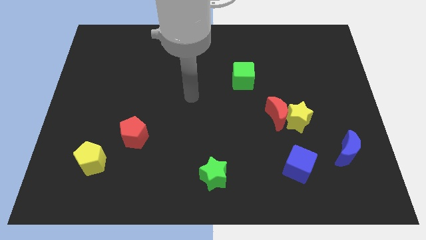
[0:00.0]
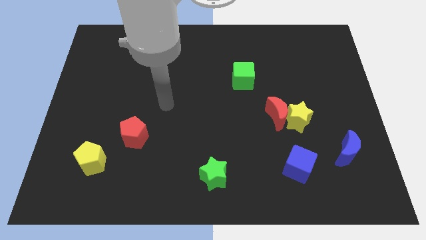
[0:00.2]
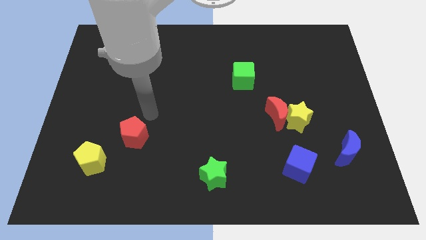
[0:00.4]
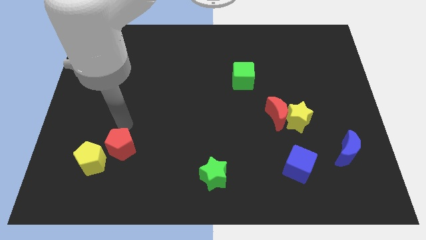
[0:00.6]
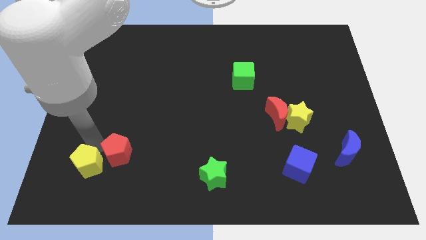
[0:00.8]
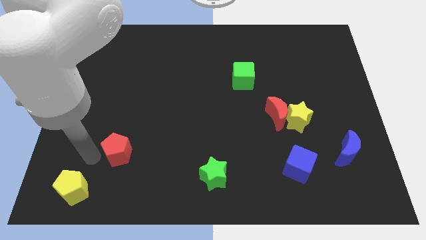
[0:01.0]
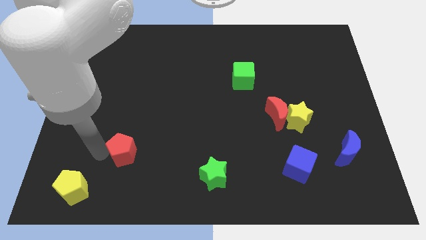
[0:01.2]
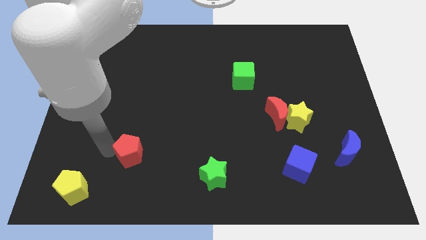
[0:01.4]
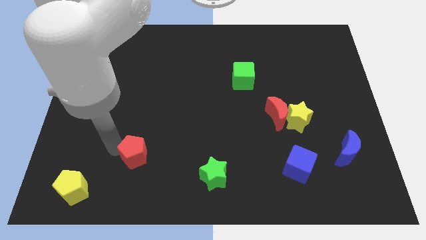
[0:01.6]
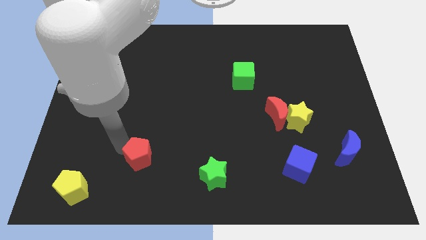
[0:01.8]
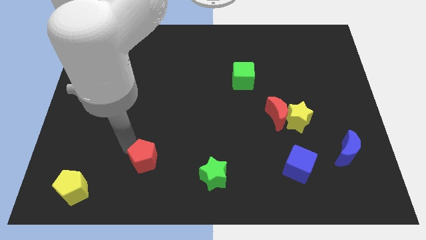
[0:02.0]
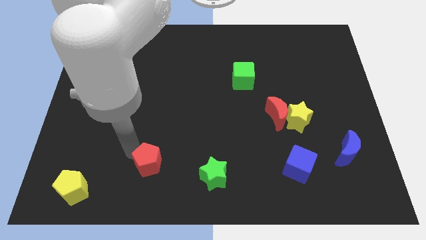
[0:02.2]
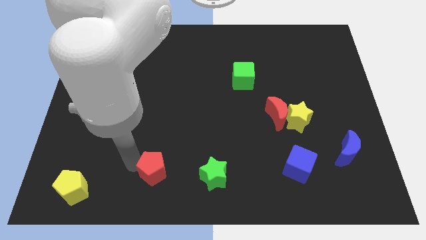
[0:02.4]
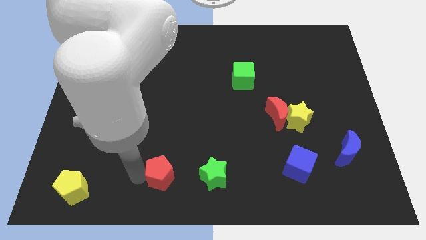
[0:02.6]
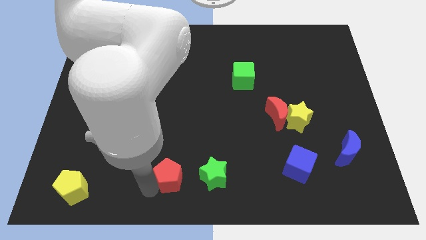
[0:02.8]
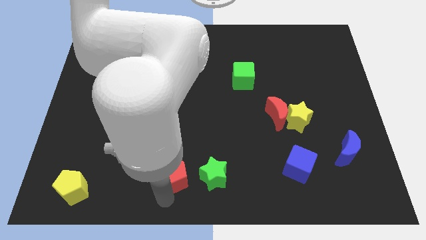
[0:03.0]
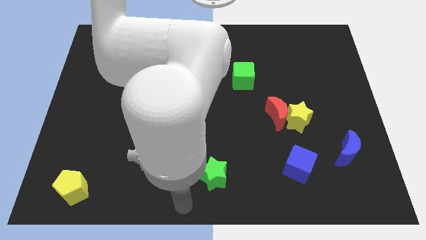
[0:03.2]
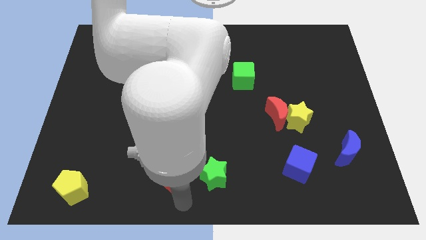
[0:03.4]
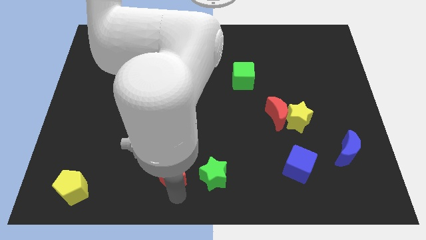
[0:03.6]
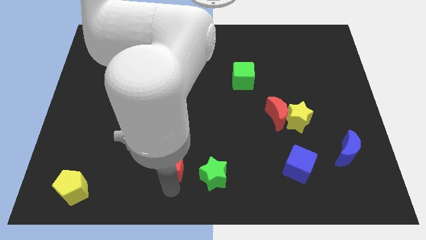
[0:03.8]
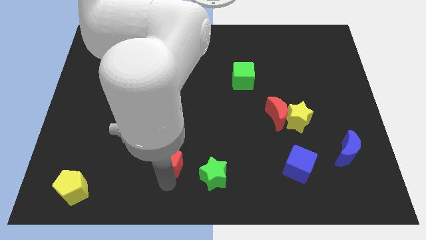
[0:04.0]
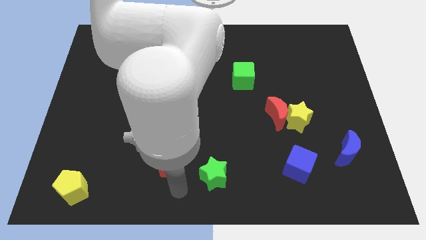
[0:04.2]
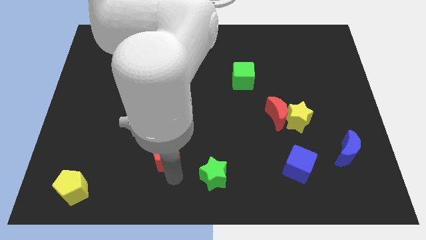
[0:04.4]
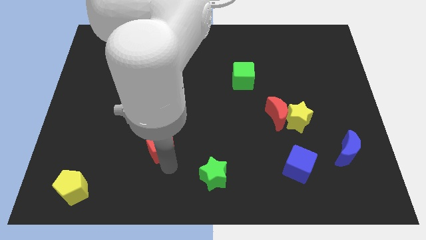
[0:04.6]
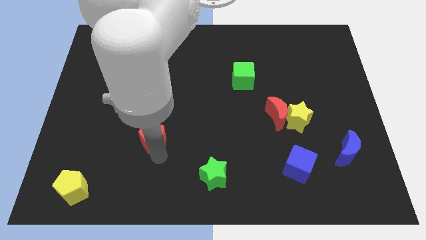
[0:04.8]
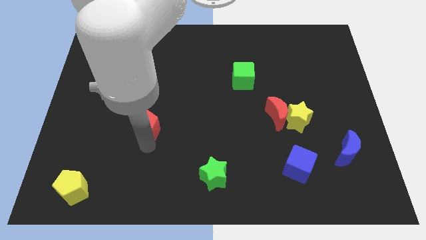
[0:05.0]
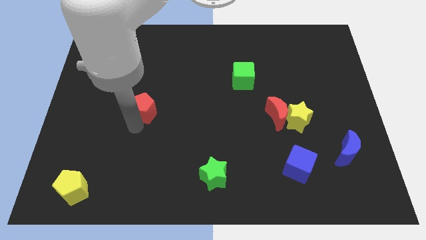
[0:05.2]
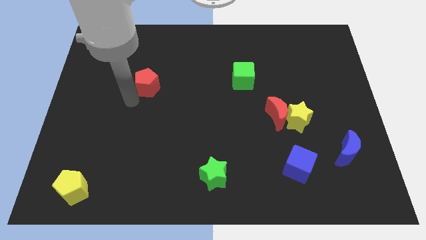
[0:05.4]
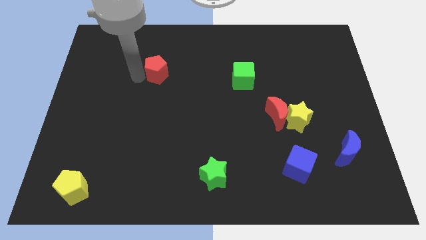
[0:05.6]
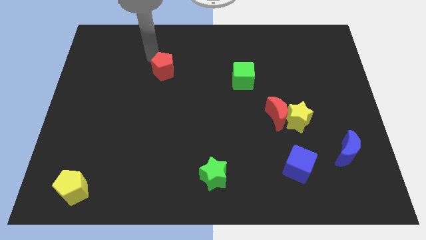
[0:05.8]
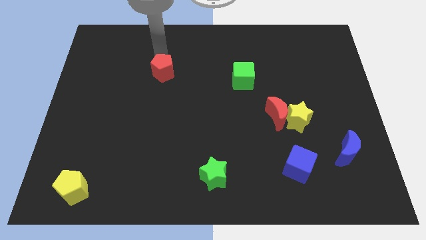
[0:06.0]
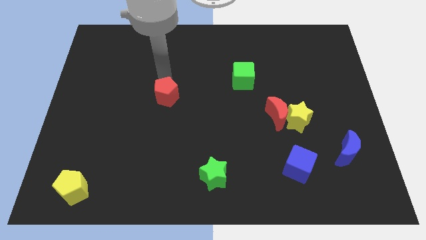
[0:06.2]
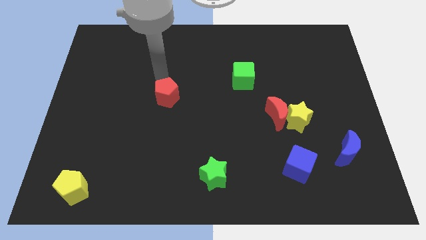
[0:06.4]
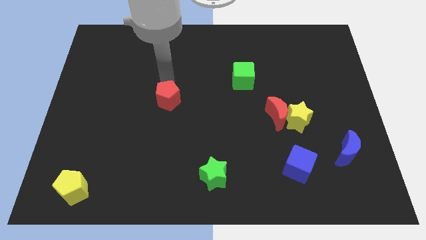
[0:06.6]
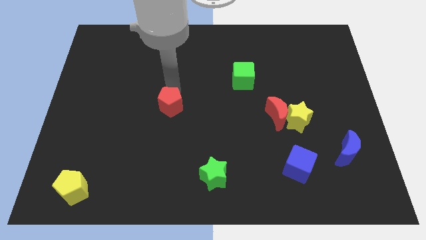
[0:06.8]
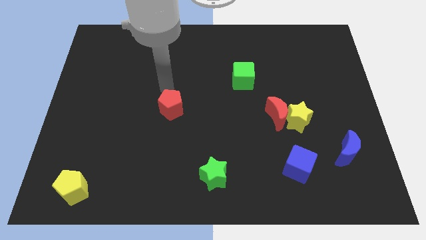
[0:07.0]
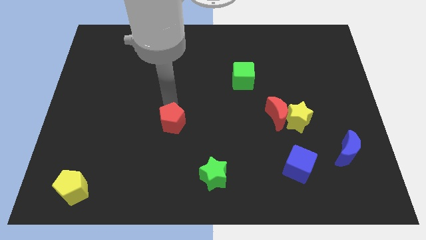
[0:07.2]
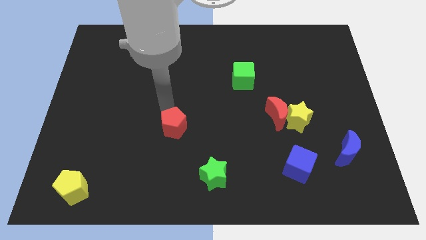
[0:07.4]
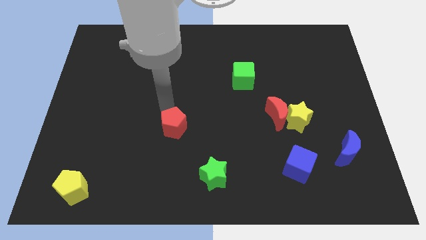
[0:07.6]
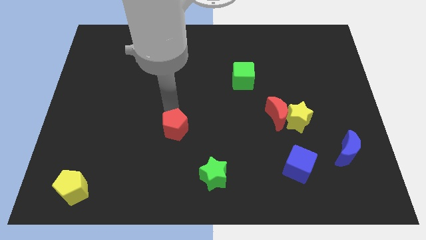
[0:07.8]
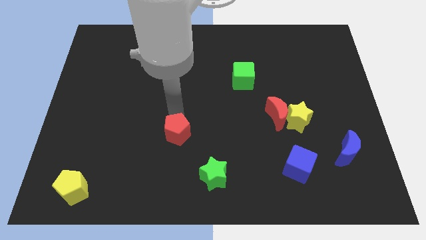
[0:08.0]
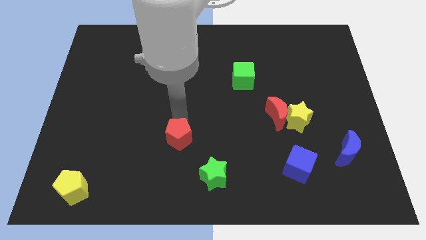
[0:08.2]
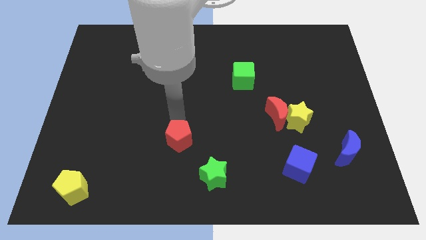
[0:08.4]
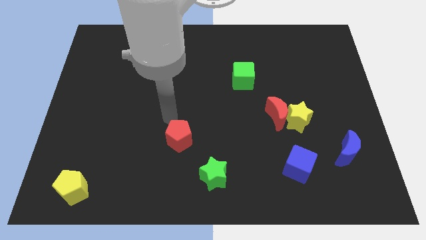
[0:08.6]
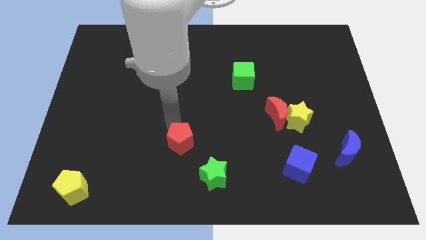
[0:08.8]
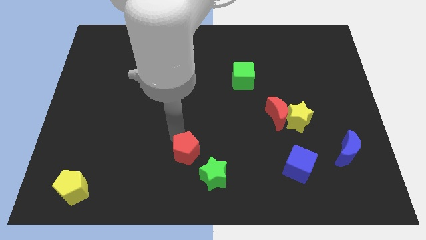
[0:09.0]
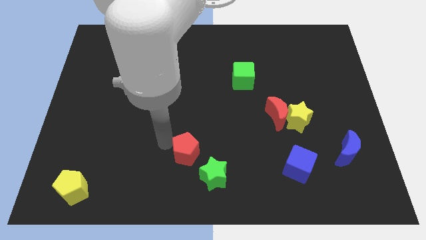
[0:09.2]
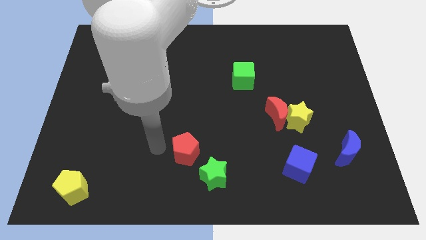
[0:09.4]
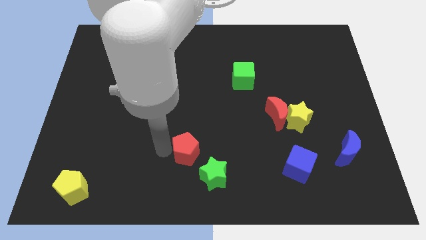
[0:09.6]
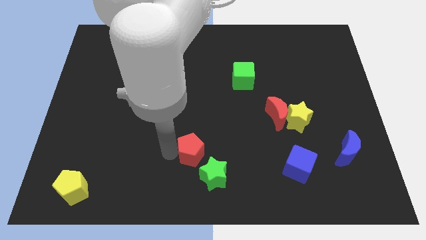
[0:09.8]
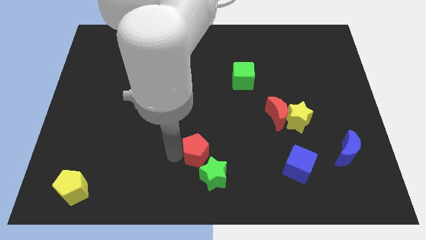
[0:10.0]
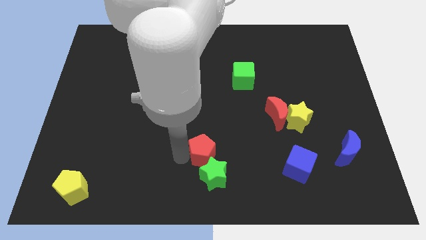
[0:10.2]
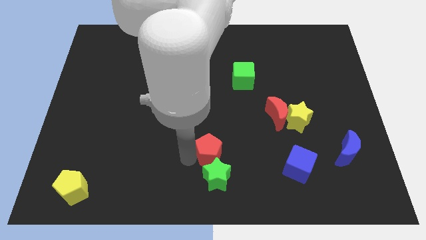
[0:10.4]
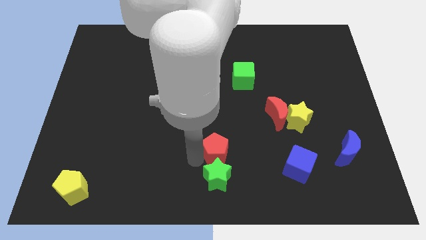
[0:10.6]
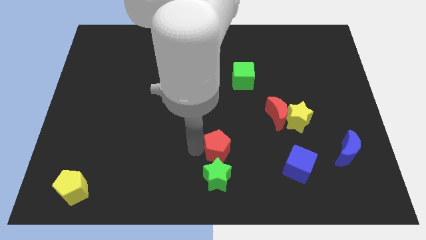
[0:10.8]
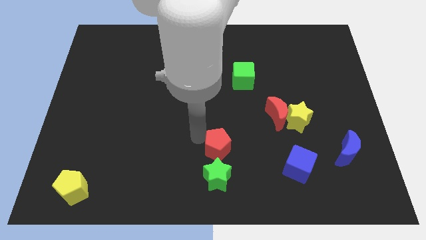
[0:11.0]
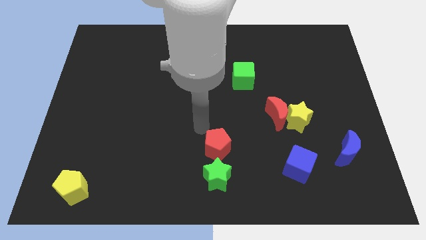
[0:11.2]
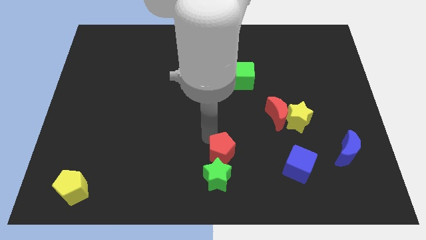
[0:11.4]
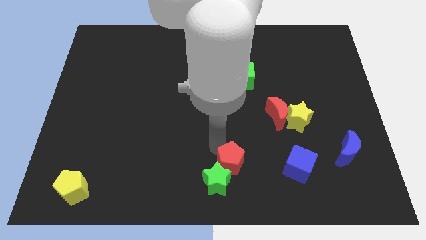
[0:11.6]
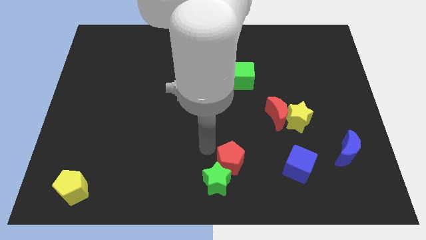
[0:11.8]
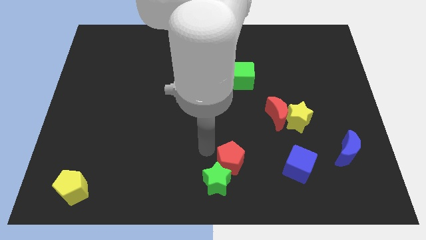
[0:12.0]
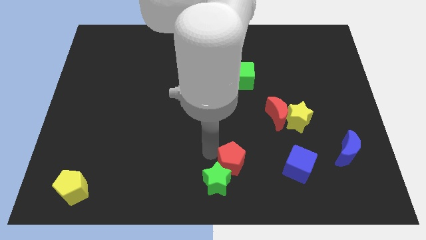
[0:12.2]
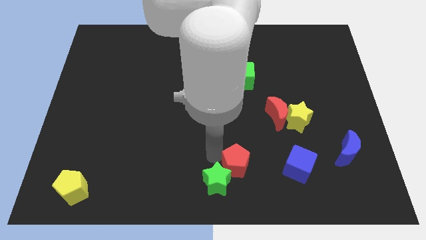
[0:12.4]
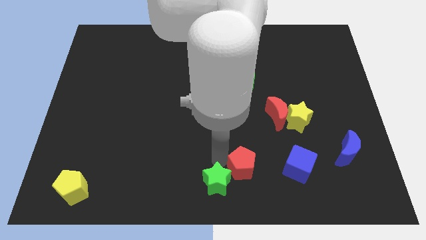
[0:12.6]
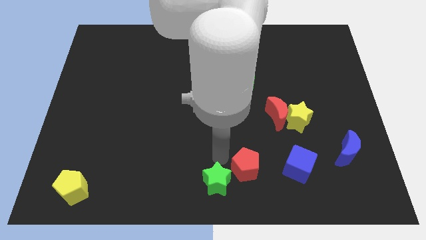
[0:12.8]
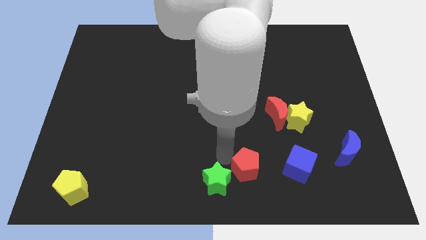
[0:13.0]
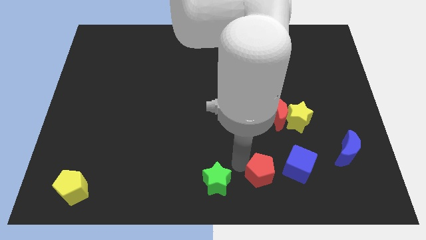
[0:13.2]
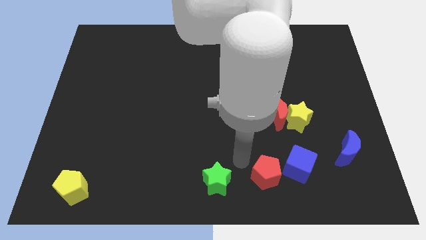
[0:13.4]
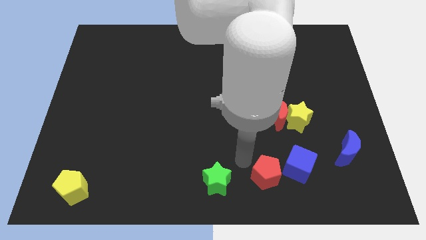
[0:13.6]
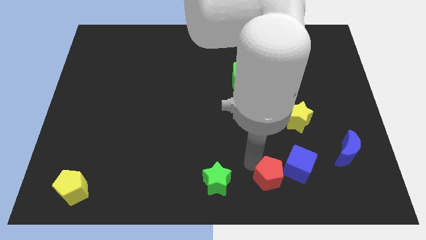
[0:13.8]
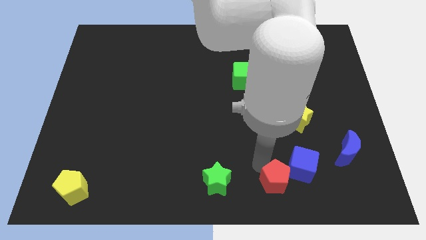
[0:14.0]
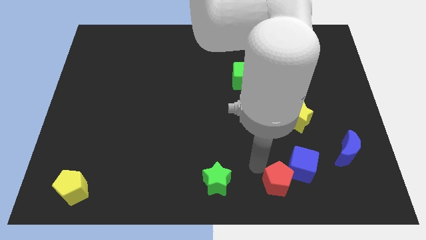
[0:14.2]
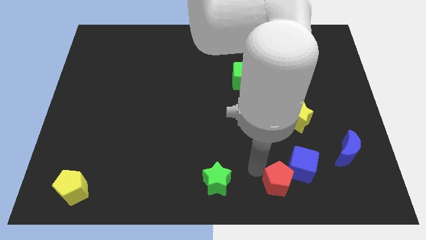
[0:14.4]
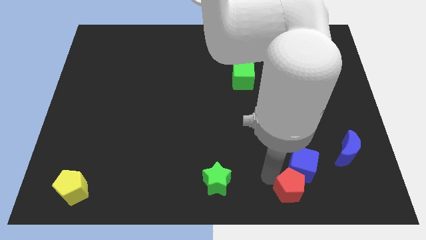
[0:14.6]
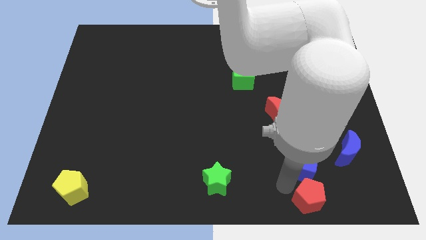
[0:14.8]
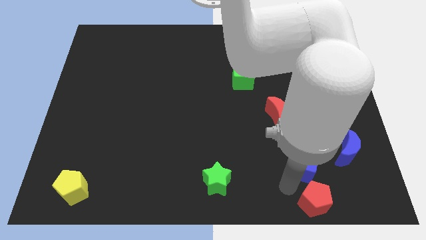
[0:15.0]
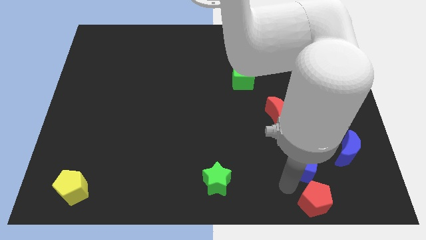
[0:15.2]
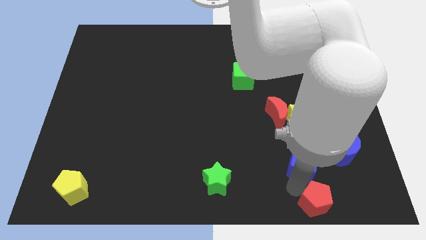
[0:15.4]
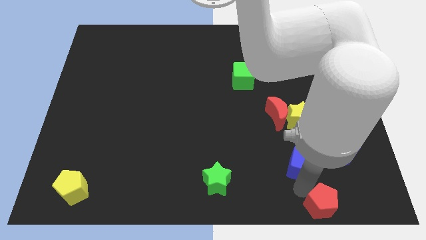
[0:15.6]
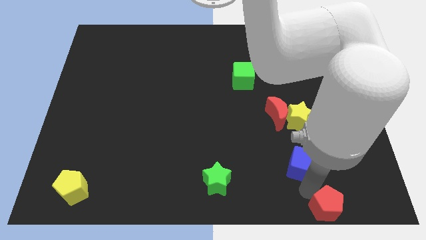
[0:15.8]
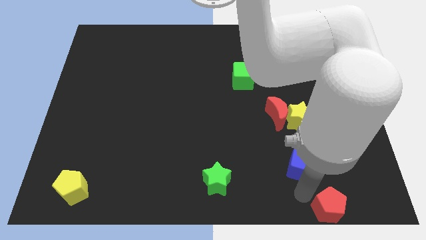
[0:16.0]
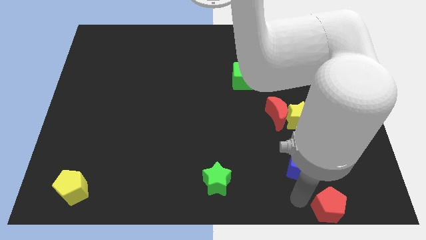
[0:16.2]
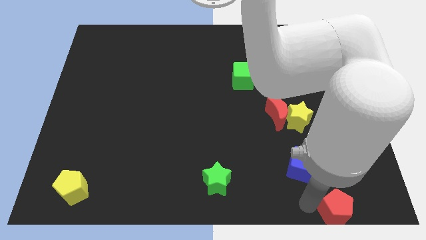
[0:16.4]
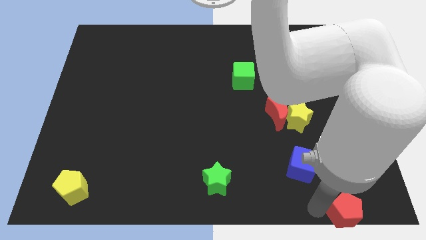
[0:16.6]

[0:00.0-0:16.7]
move the red pentagon to the bottom right of the board
